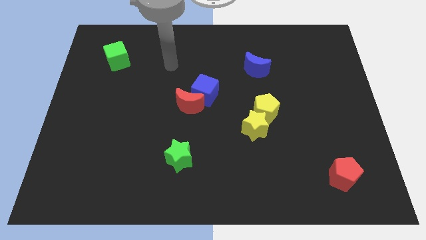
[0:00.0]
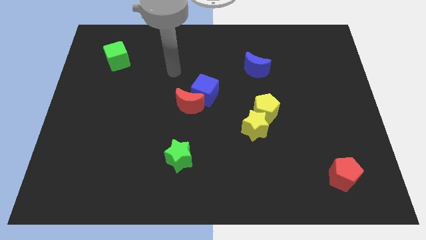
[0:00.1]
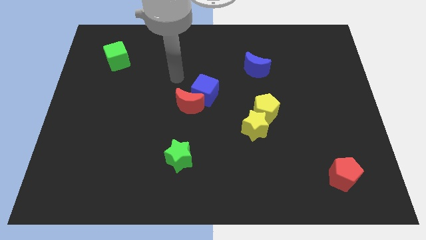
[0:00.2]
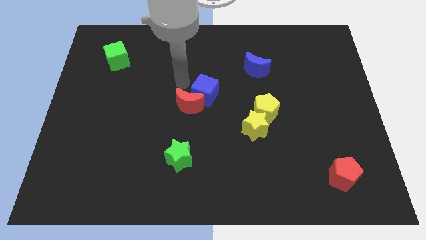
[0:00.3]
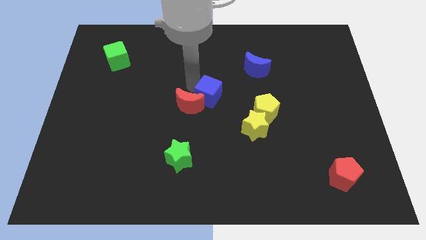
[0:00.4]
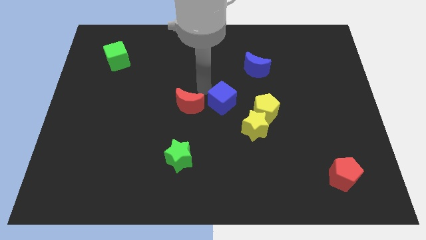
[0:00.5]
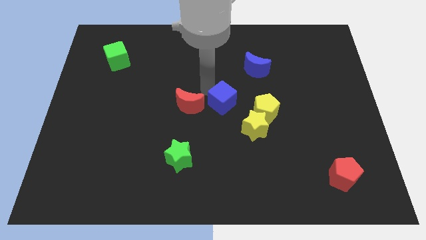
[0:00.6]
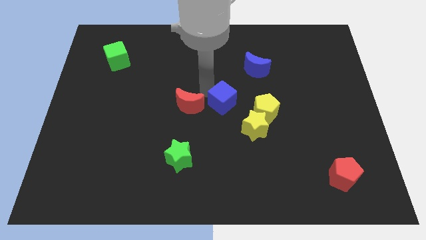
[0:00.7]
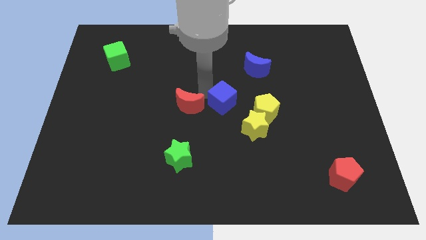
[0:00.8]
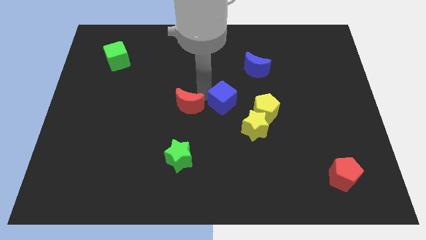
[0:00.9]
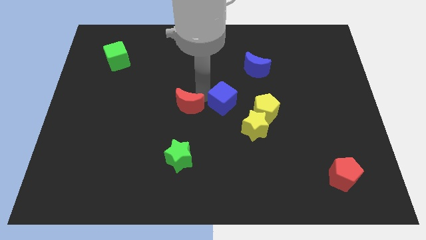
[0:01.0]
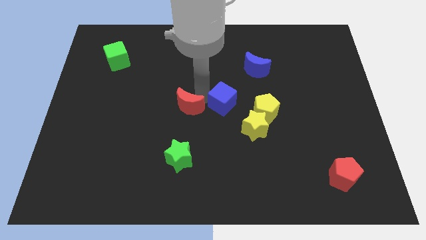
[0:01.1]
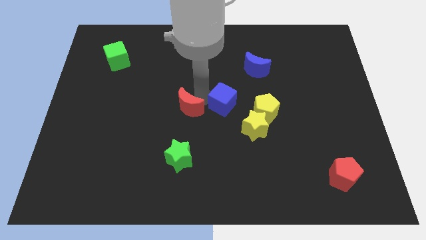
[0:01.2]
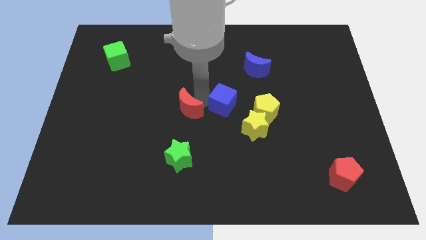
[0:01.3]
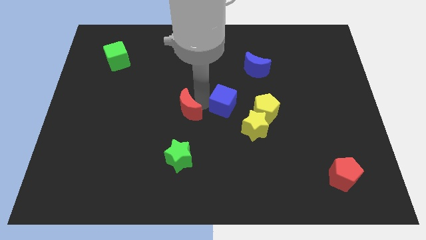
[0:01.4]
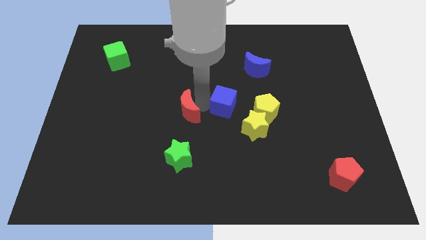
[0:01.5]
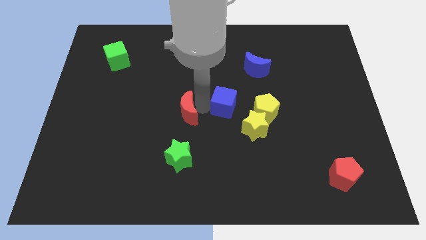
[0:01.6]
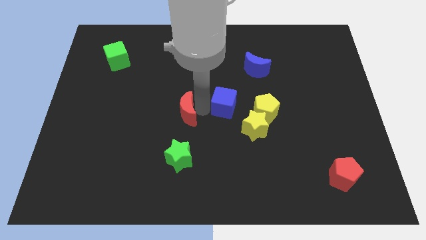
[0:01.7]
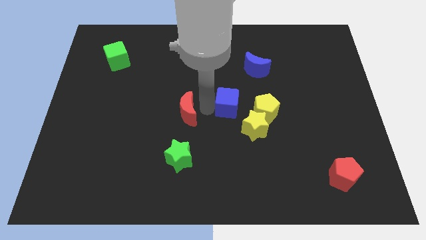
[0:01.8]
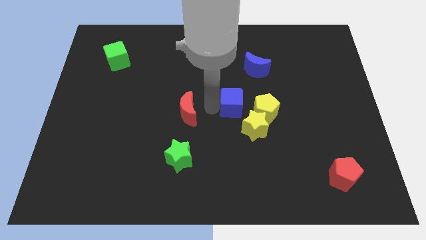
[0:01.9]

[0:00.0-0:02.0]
separate the red moon from the blue cube

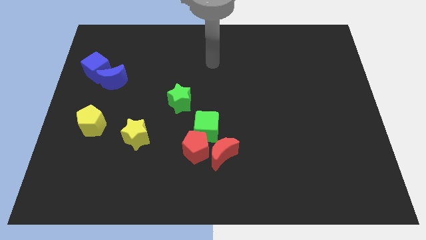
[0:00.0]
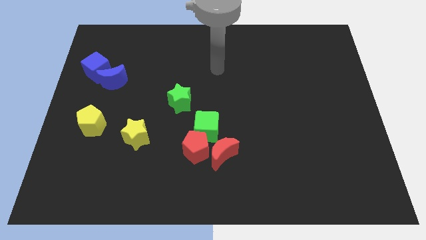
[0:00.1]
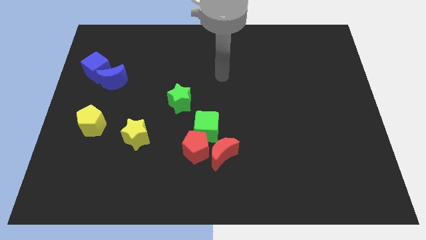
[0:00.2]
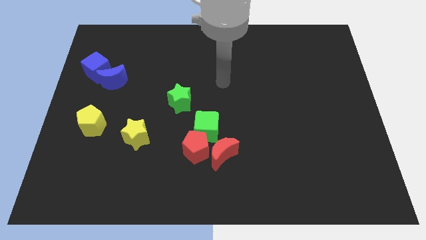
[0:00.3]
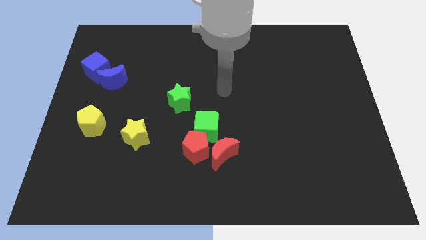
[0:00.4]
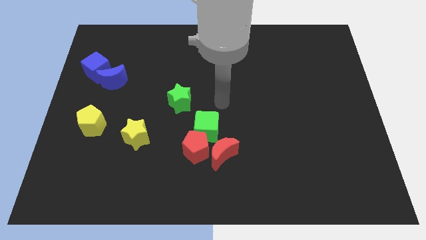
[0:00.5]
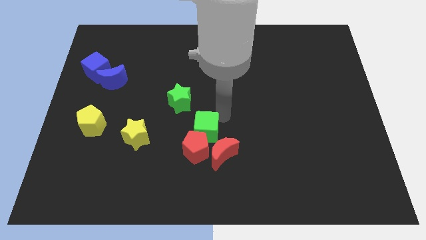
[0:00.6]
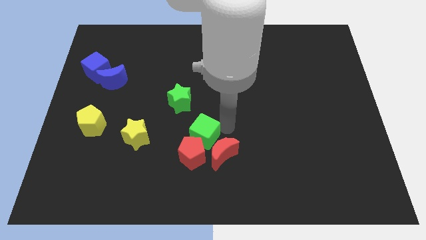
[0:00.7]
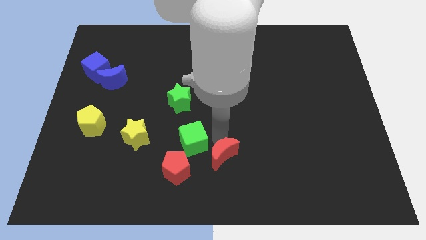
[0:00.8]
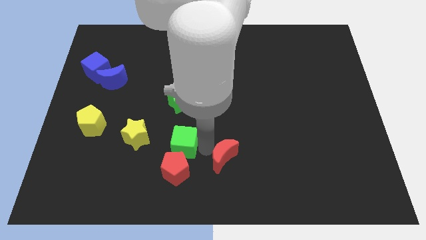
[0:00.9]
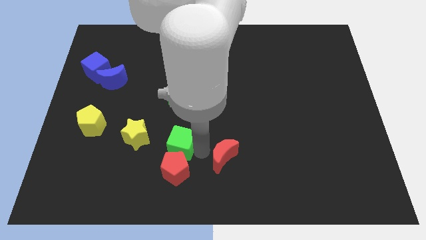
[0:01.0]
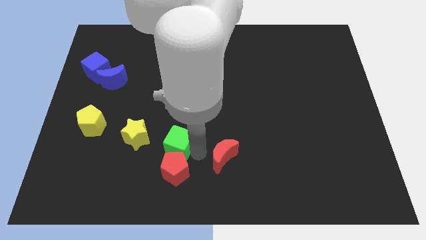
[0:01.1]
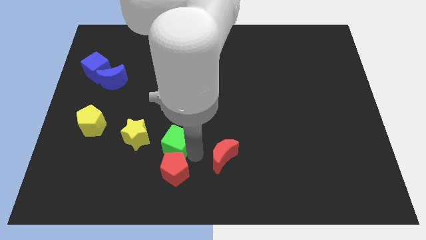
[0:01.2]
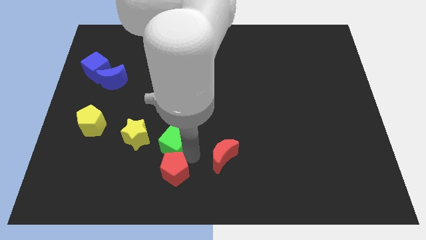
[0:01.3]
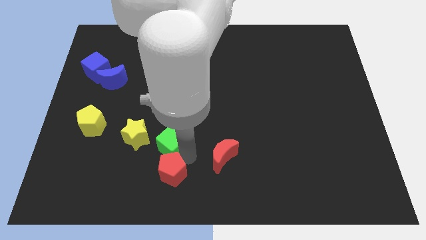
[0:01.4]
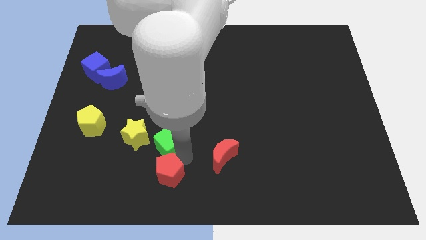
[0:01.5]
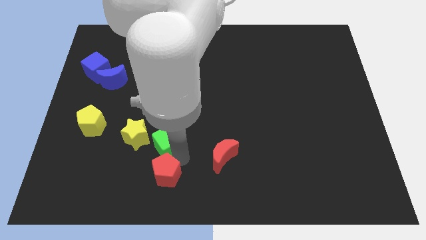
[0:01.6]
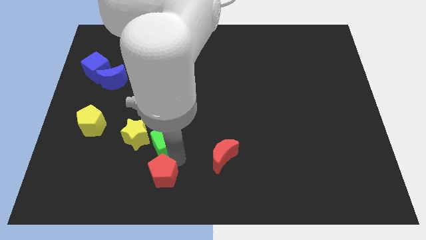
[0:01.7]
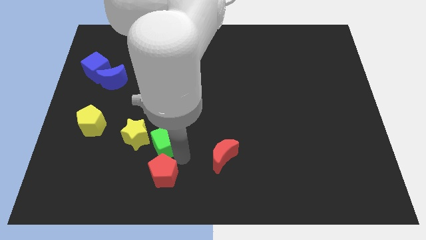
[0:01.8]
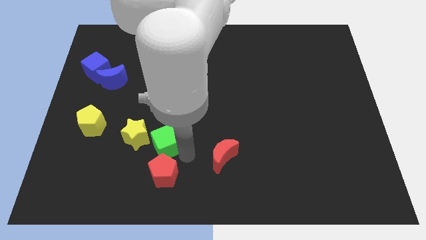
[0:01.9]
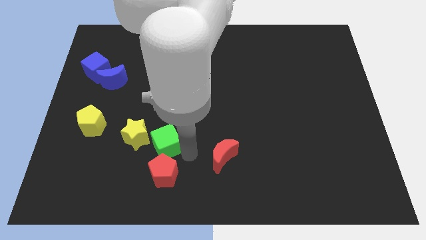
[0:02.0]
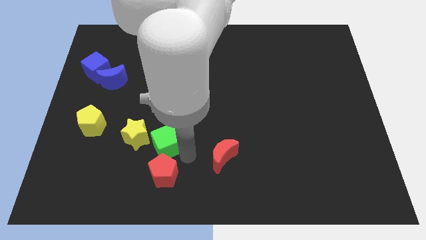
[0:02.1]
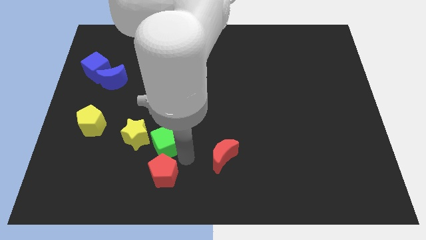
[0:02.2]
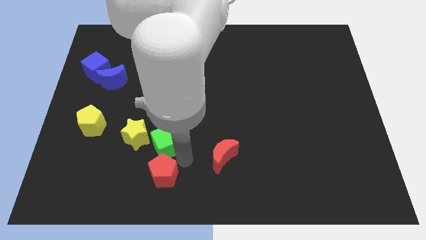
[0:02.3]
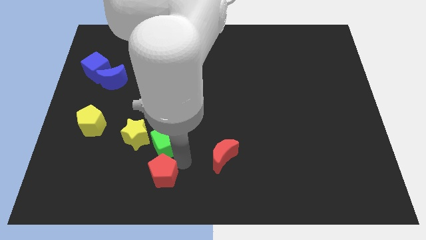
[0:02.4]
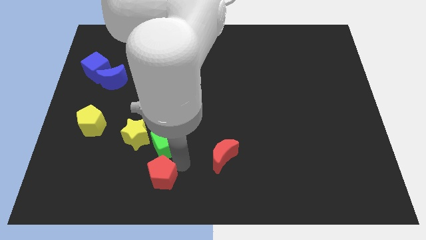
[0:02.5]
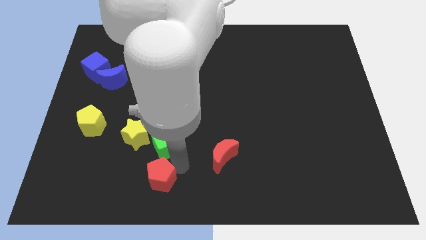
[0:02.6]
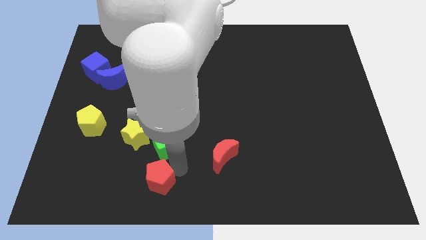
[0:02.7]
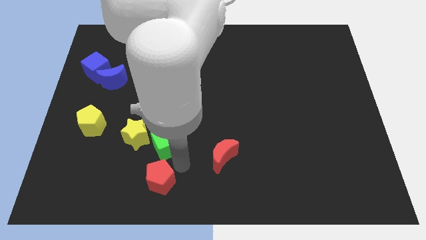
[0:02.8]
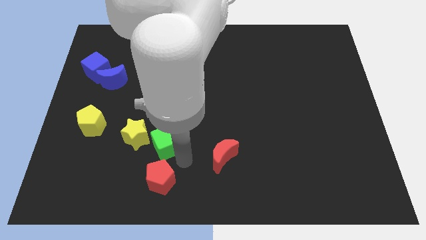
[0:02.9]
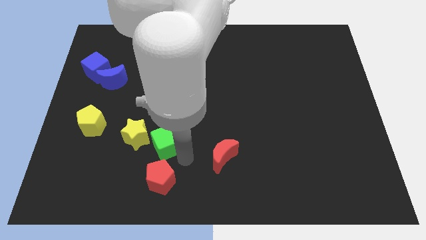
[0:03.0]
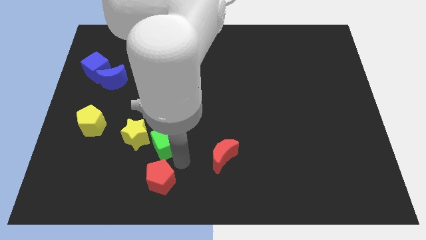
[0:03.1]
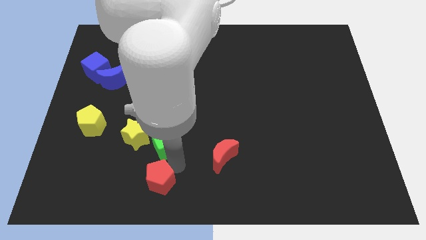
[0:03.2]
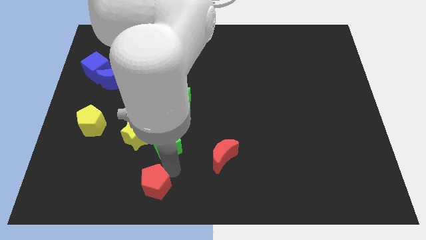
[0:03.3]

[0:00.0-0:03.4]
move the red pentagon away from the red moon and green cube

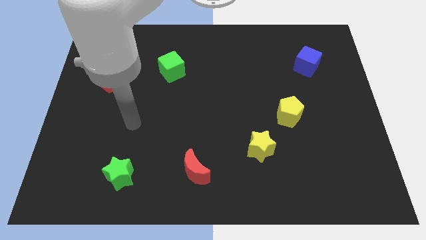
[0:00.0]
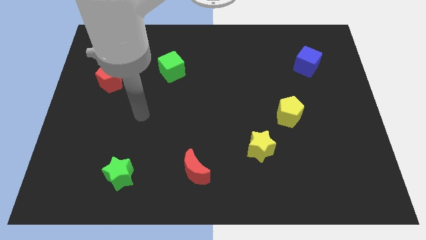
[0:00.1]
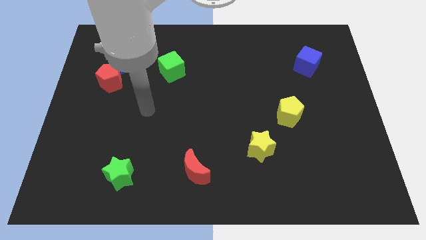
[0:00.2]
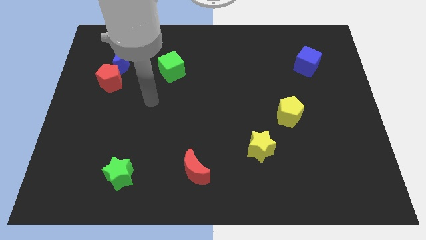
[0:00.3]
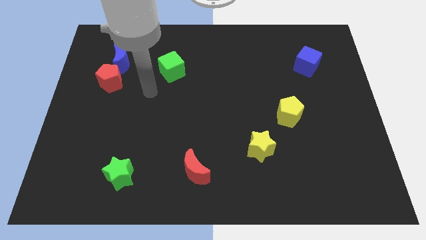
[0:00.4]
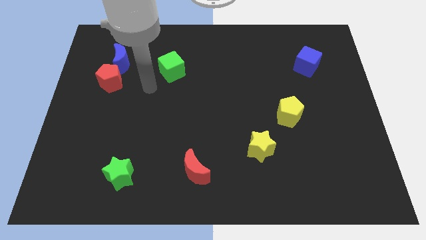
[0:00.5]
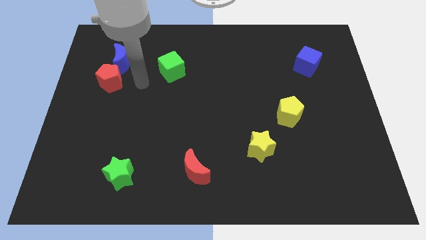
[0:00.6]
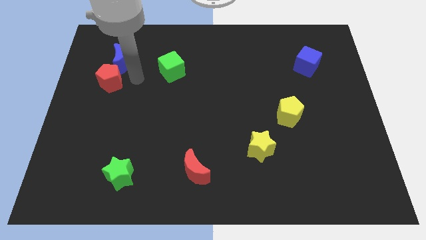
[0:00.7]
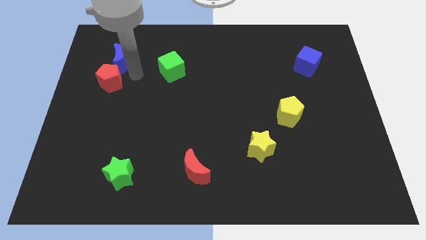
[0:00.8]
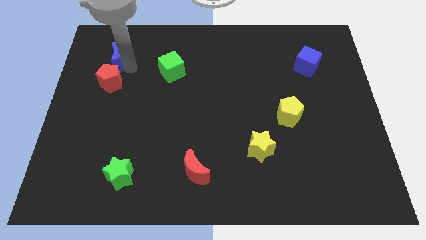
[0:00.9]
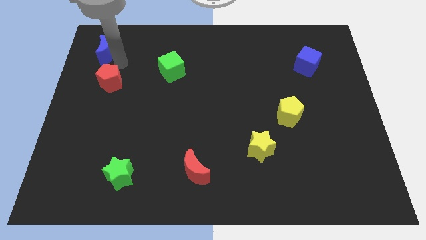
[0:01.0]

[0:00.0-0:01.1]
separate the red pentagon from the blue moon

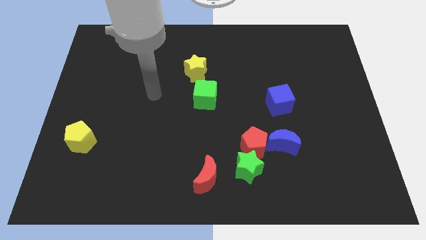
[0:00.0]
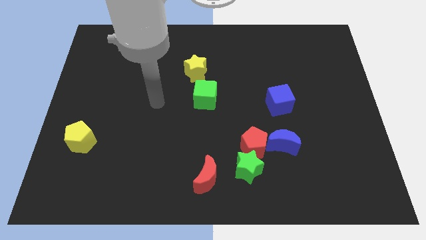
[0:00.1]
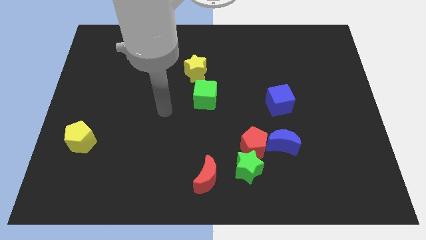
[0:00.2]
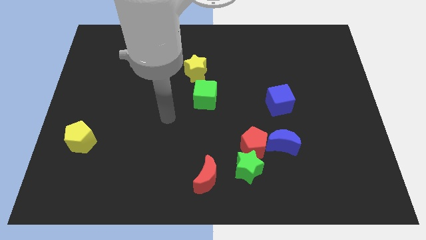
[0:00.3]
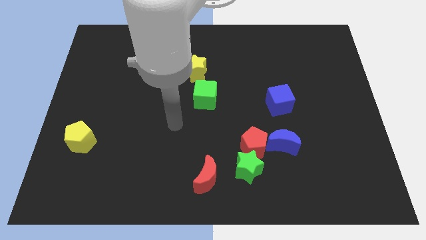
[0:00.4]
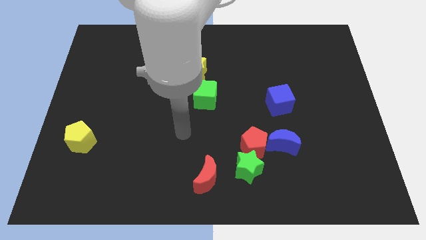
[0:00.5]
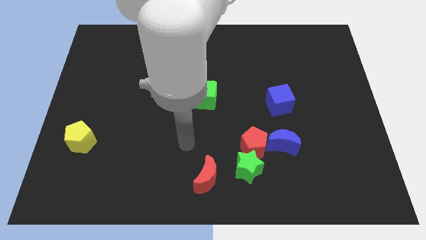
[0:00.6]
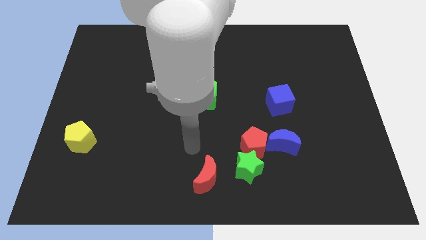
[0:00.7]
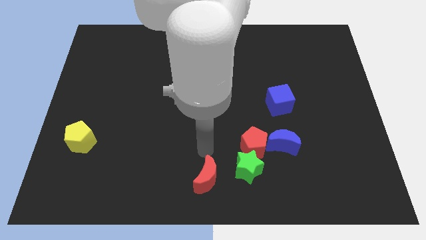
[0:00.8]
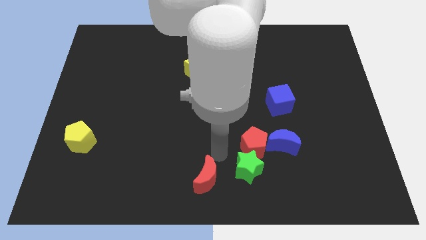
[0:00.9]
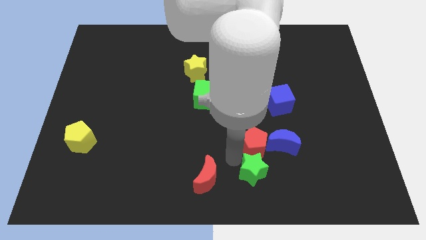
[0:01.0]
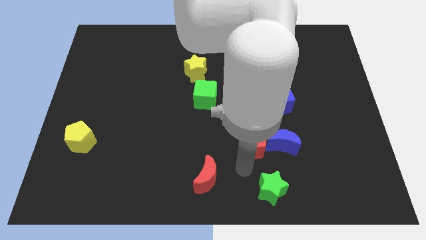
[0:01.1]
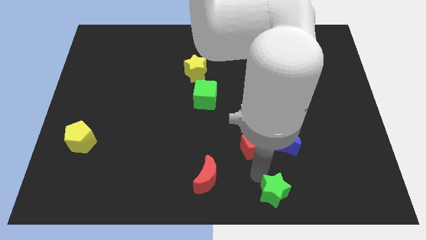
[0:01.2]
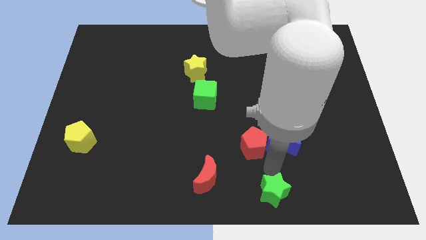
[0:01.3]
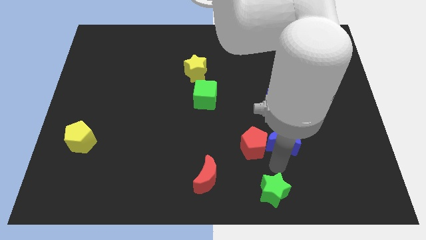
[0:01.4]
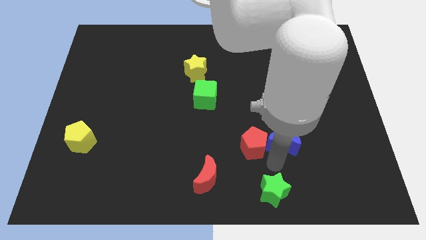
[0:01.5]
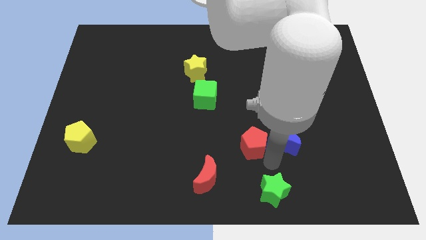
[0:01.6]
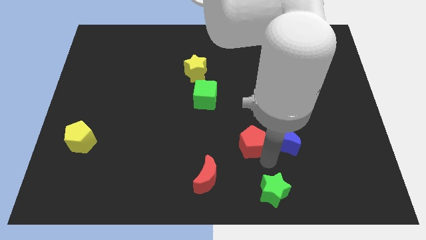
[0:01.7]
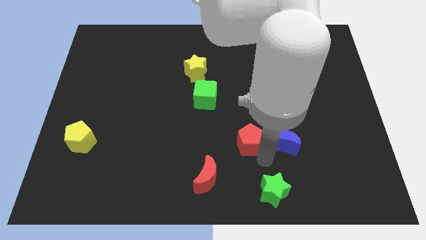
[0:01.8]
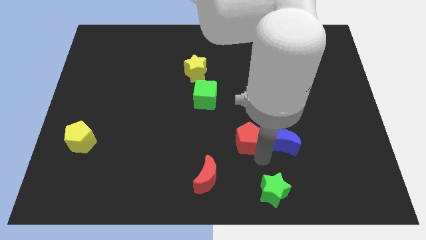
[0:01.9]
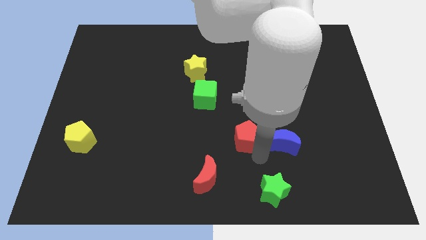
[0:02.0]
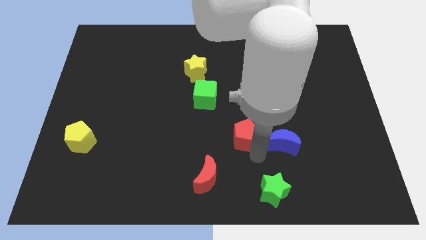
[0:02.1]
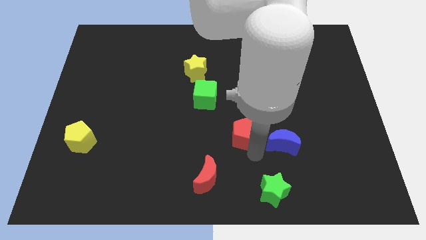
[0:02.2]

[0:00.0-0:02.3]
move the red pentagon away from the green star and blue moon

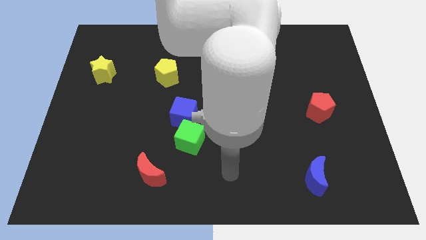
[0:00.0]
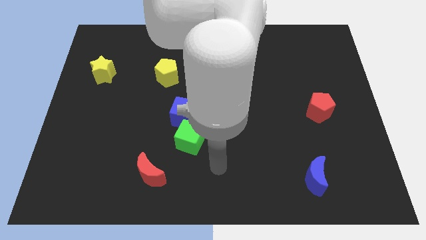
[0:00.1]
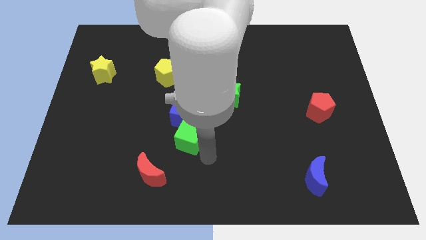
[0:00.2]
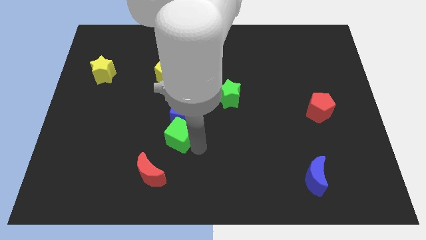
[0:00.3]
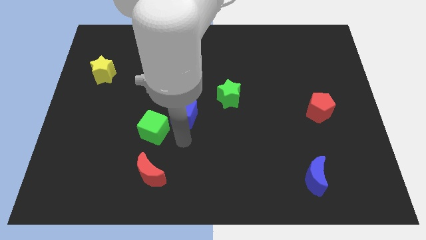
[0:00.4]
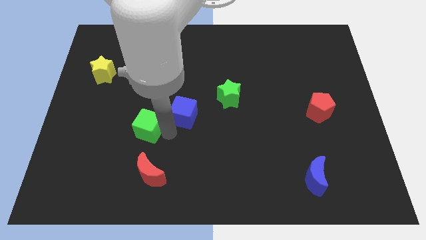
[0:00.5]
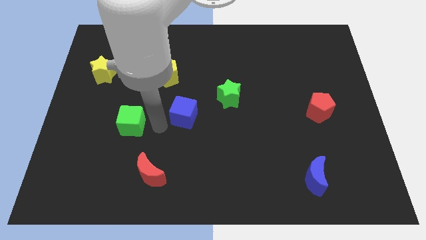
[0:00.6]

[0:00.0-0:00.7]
pull the blue cube apart from the green cube
